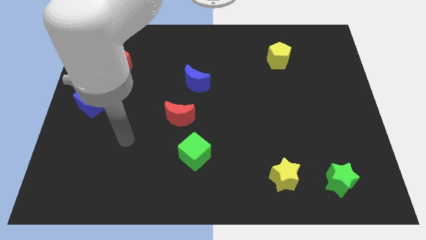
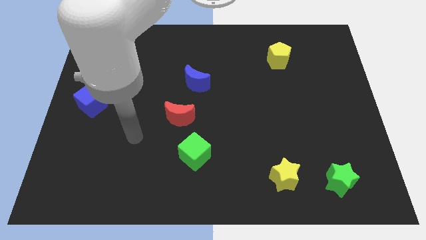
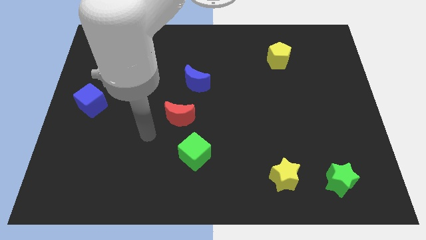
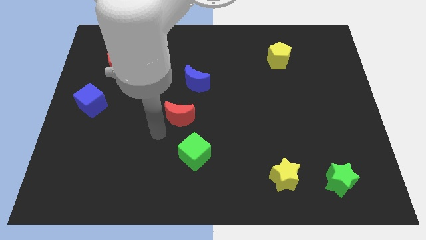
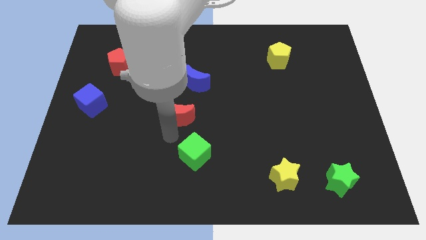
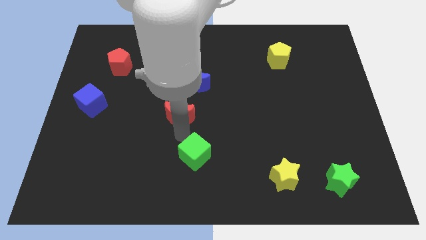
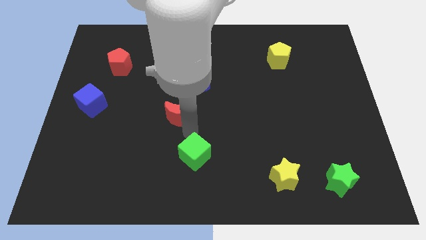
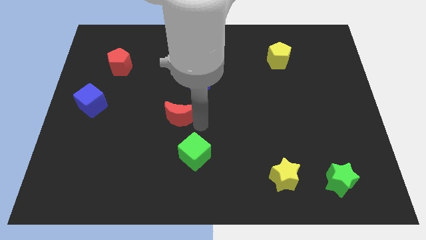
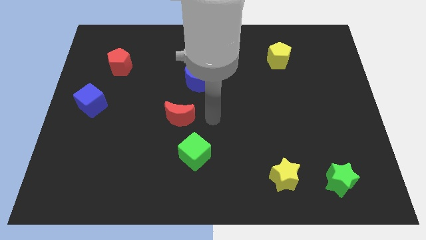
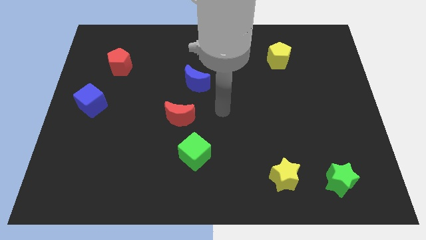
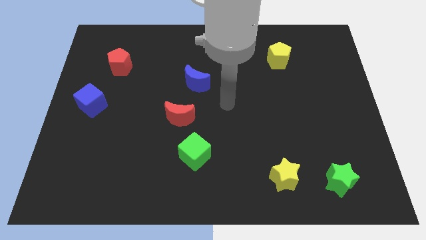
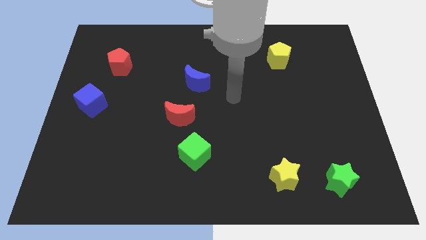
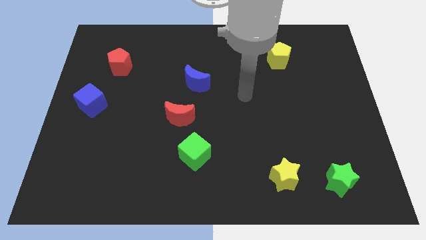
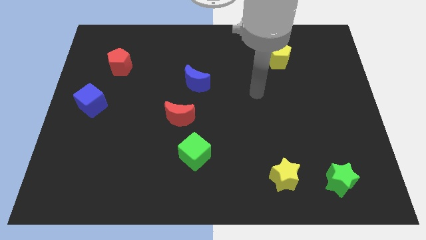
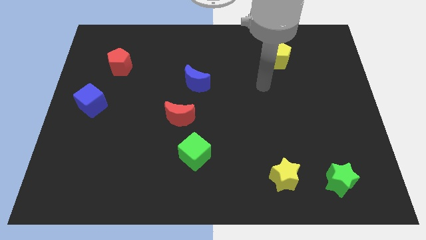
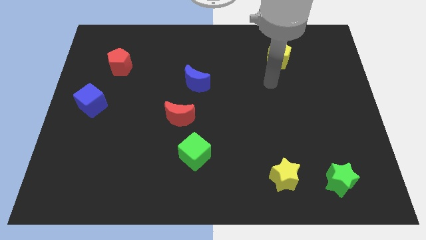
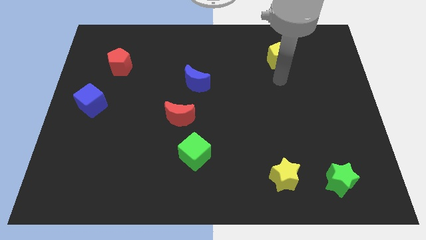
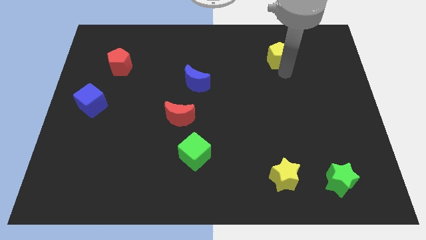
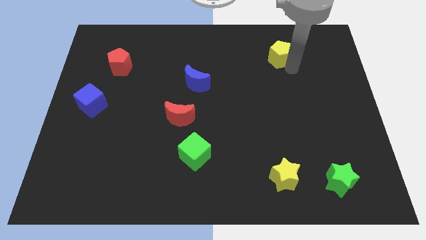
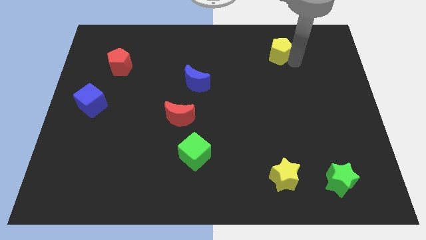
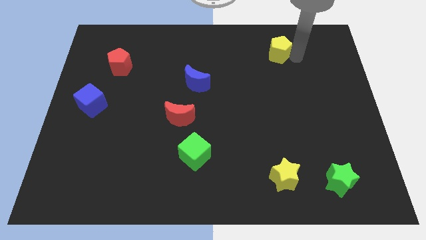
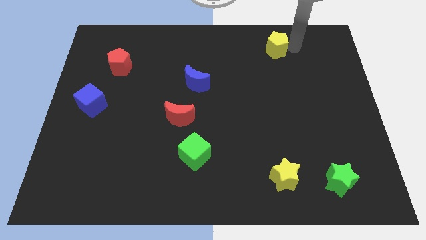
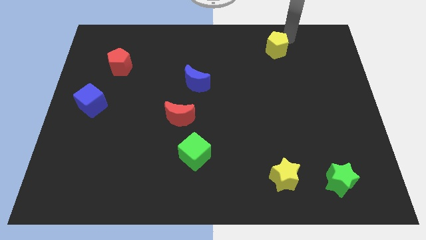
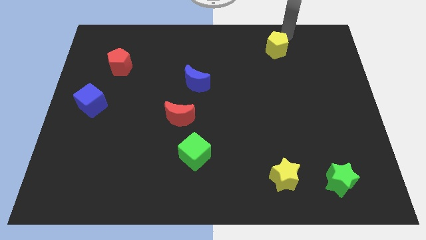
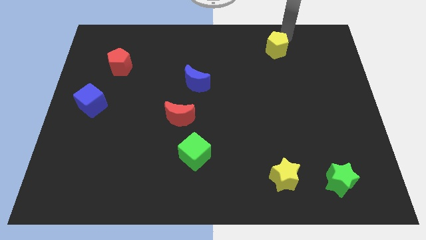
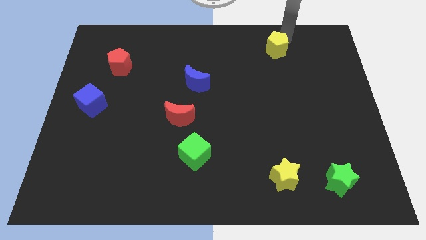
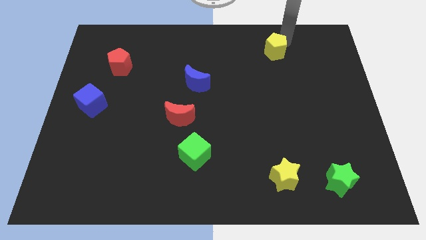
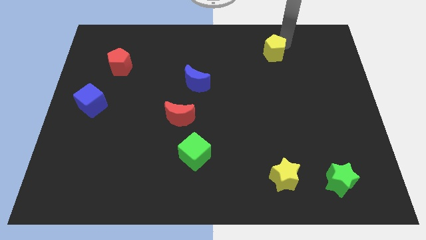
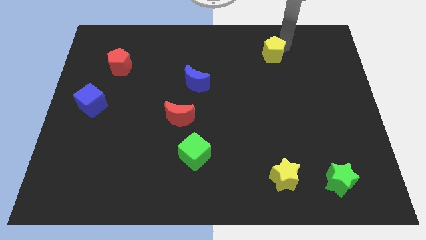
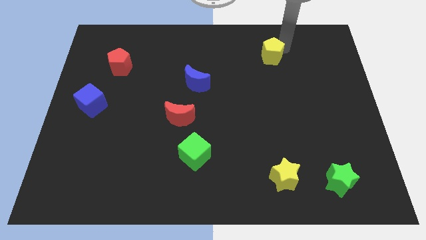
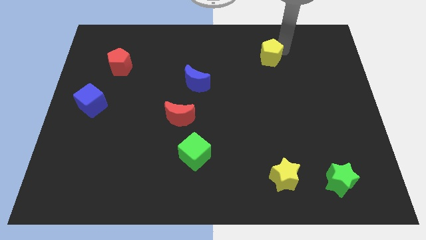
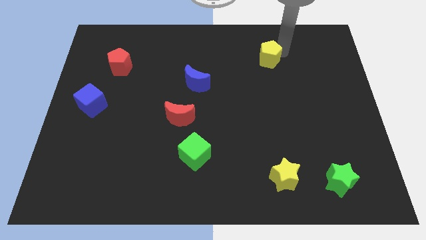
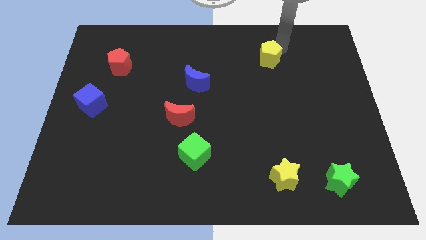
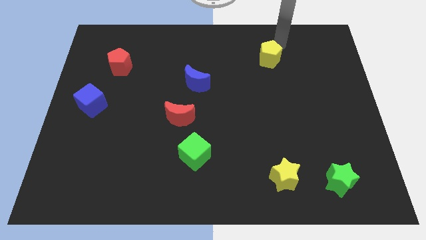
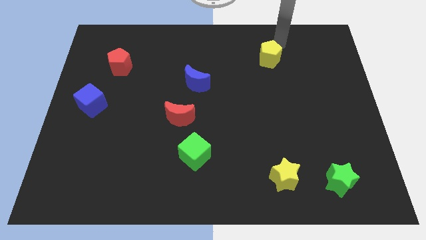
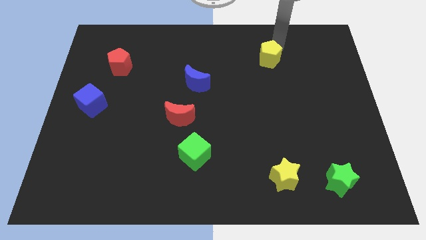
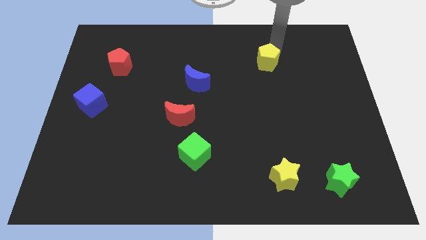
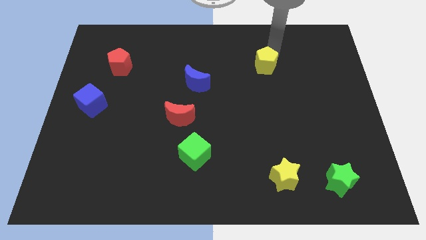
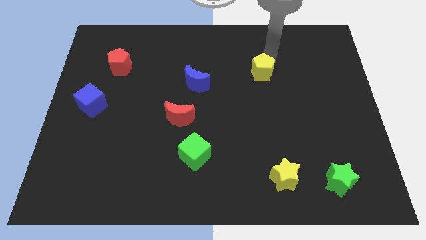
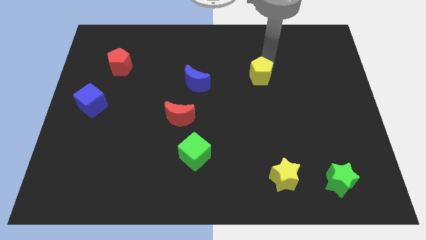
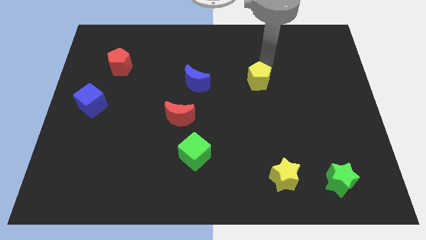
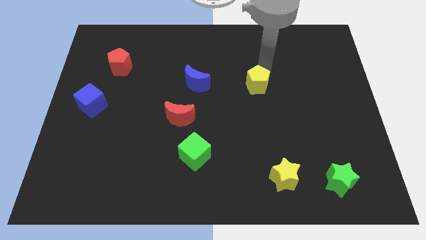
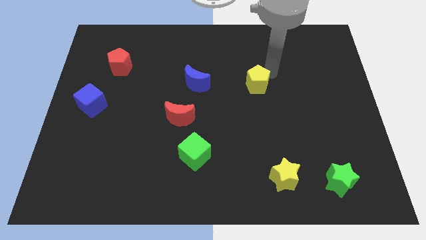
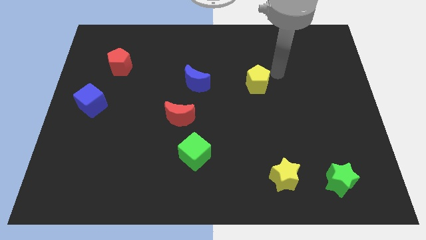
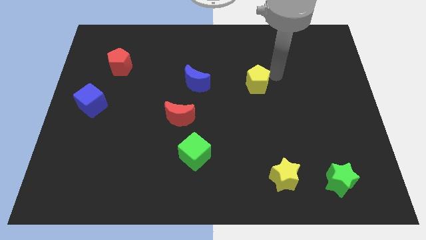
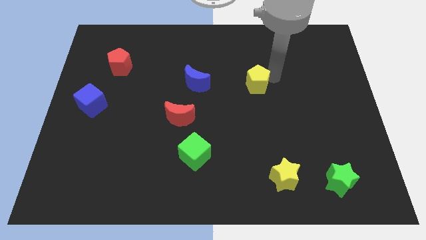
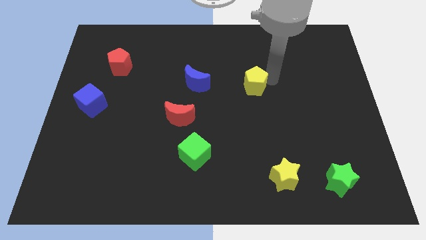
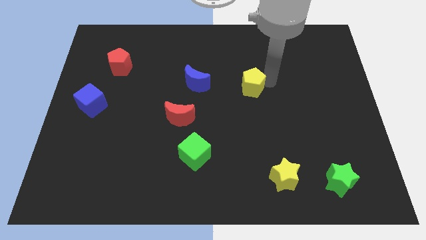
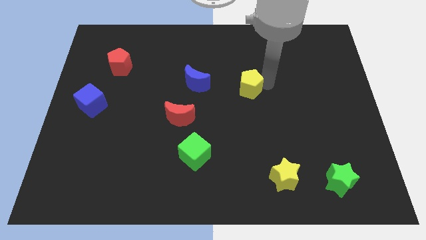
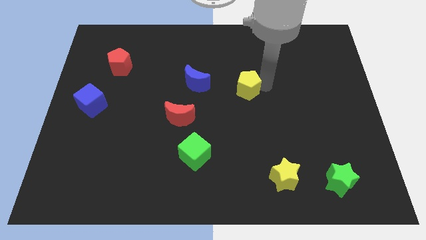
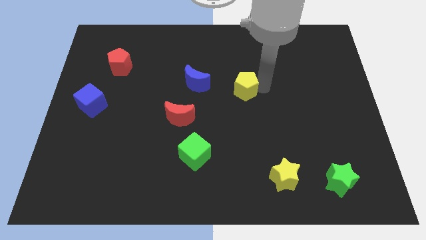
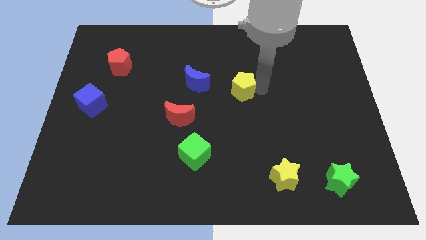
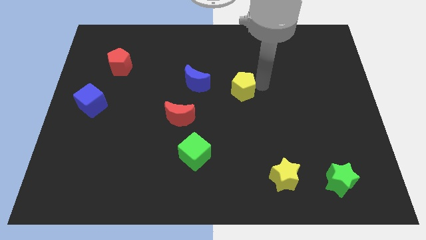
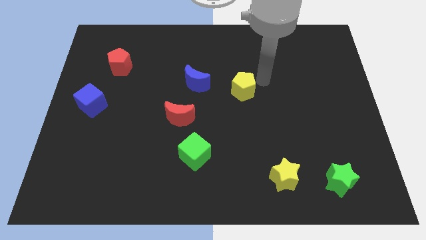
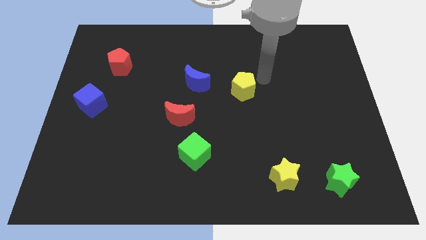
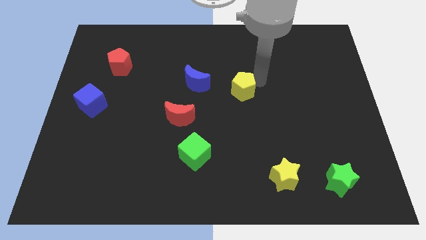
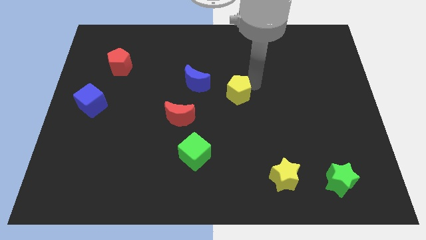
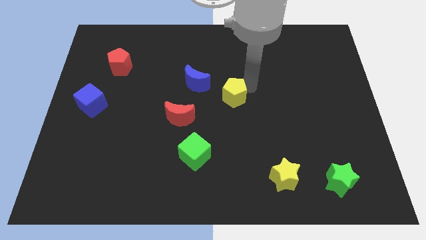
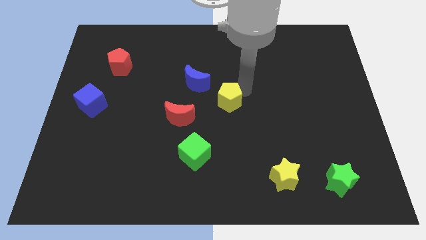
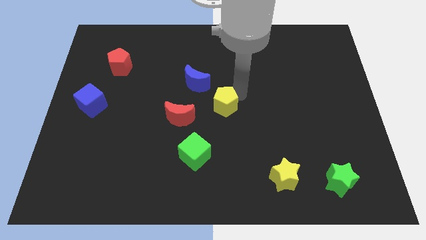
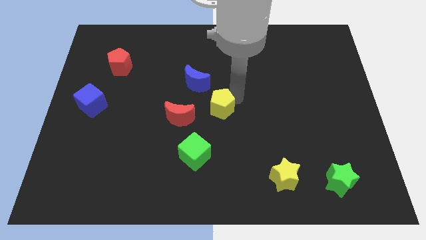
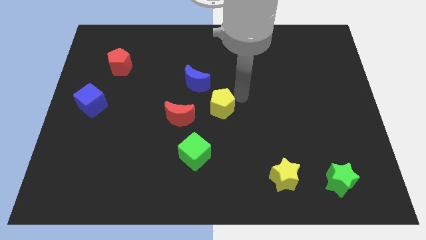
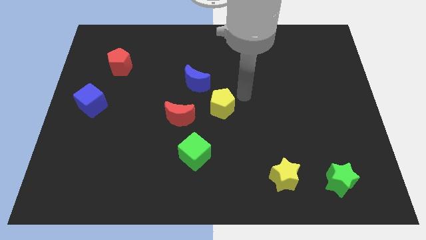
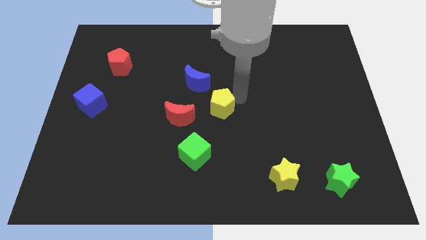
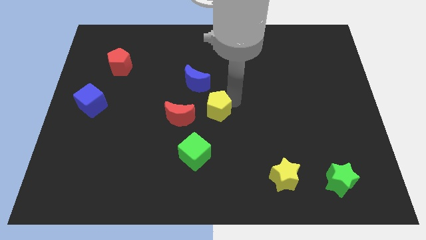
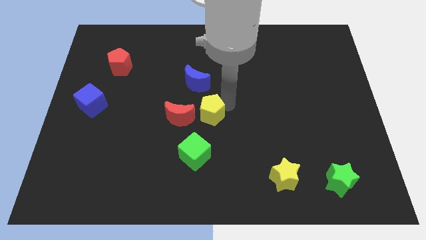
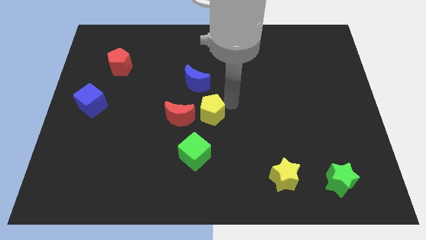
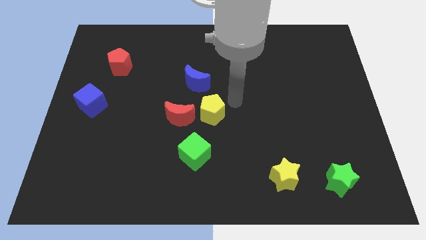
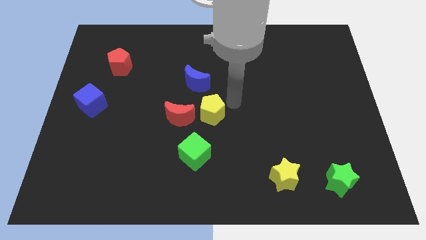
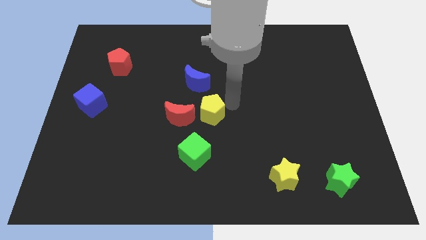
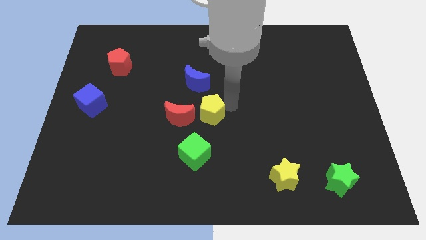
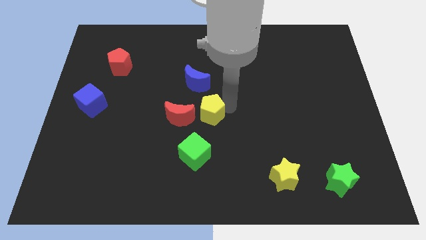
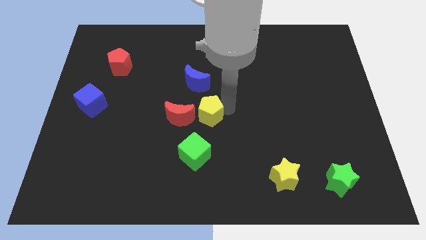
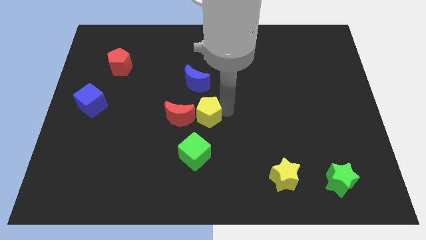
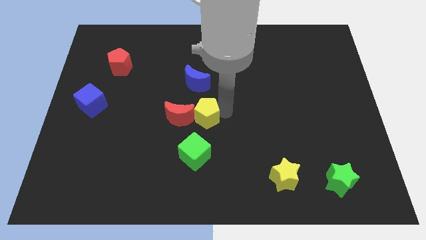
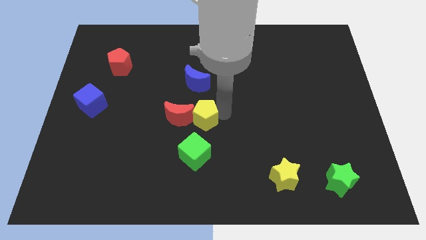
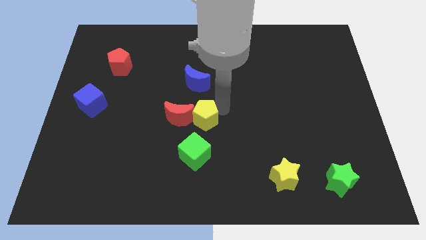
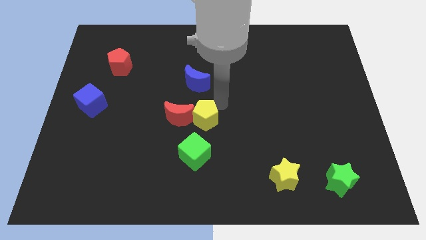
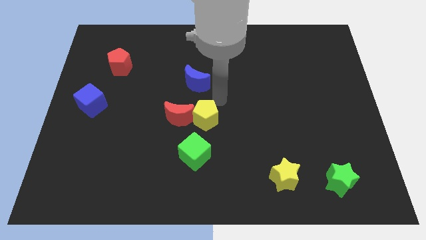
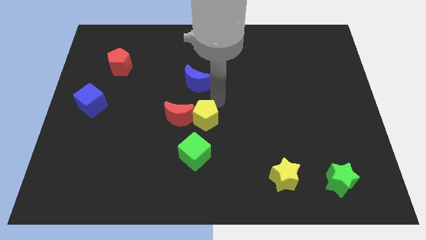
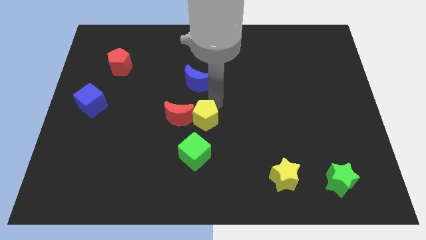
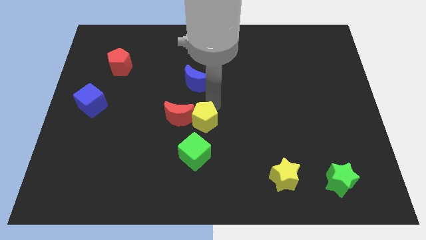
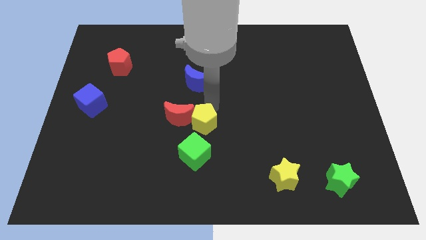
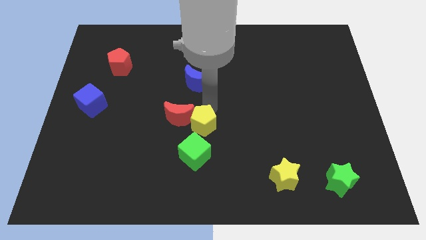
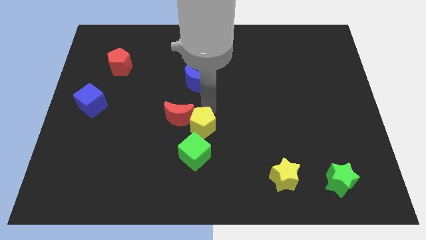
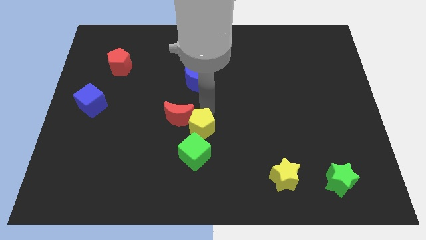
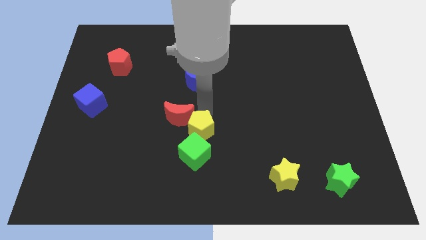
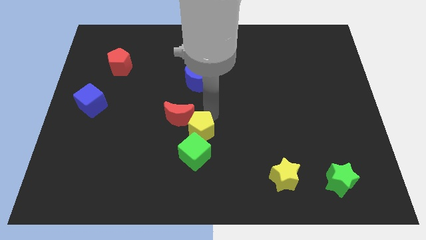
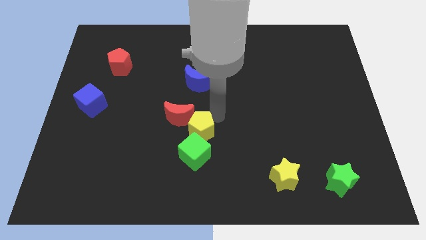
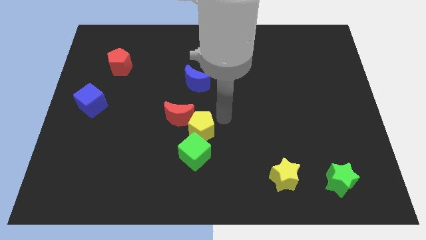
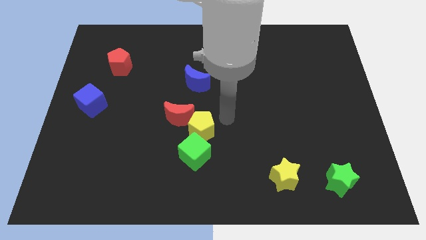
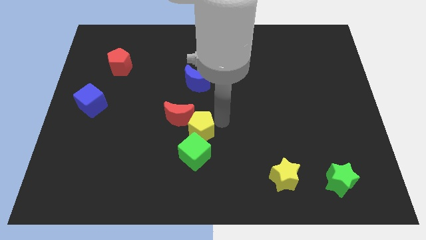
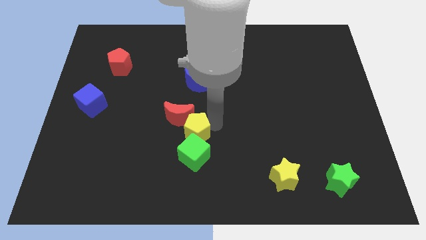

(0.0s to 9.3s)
put the yellow pentagon below the red moon
